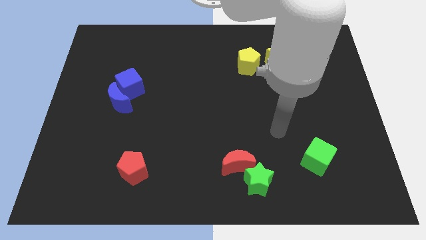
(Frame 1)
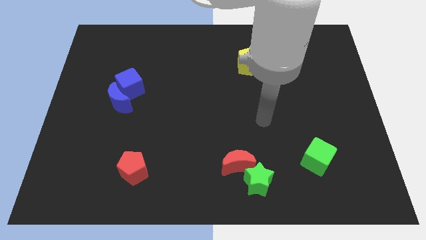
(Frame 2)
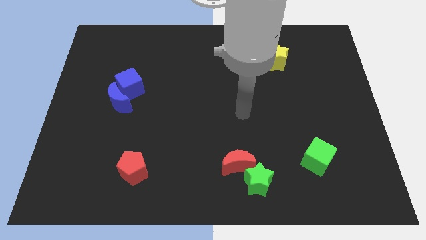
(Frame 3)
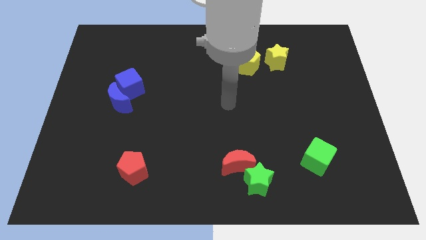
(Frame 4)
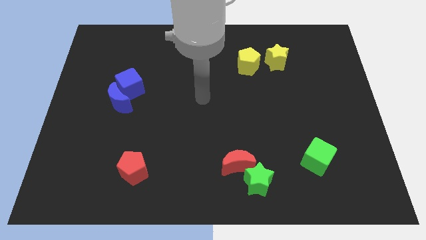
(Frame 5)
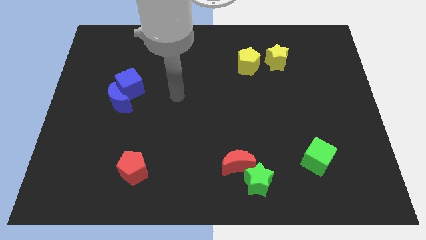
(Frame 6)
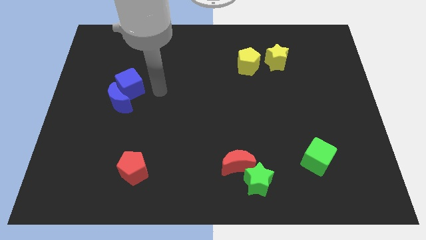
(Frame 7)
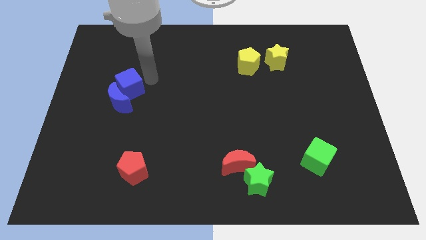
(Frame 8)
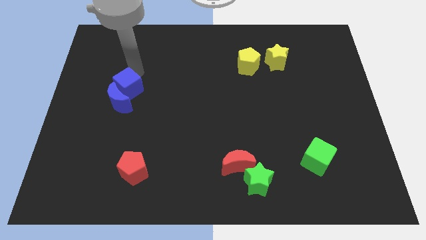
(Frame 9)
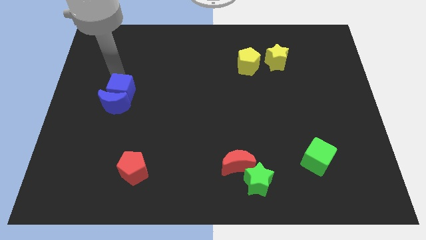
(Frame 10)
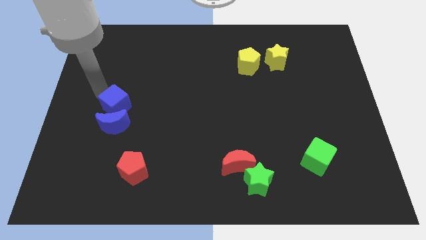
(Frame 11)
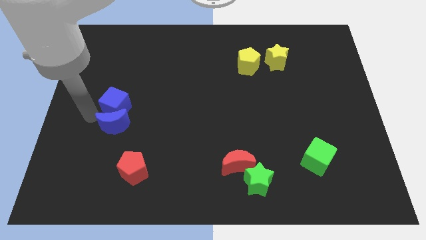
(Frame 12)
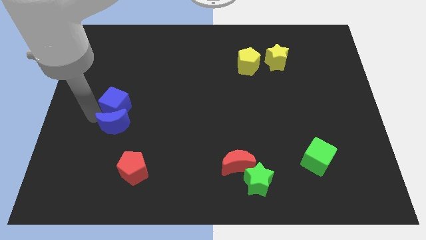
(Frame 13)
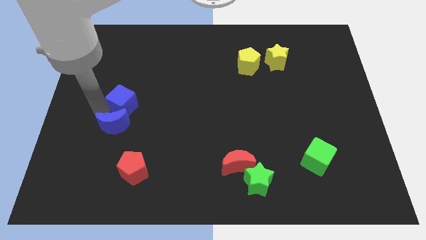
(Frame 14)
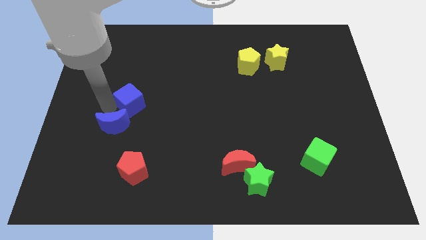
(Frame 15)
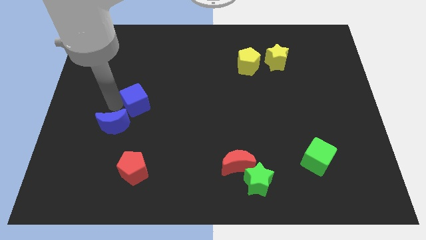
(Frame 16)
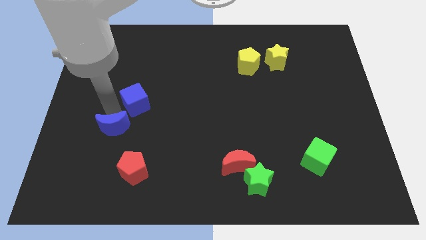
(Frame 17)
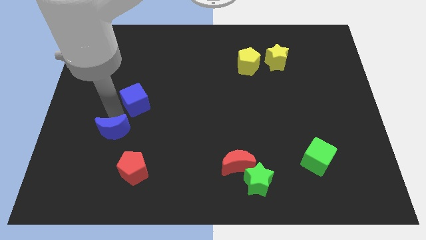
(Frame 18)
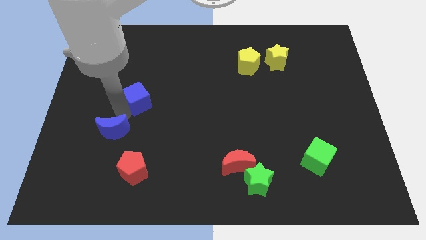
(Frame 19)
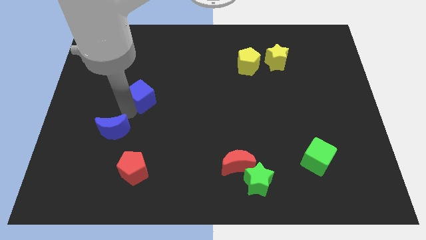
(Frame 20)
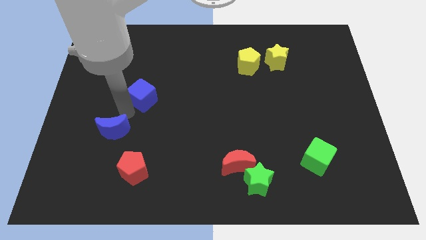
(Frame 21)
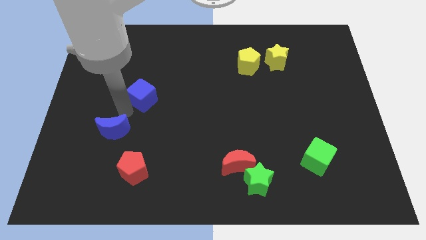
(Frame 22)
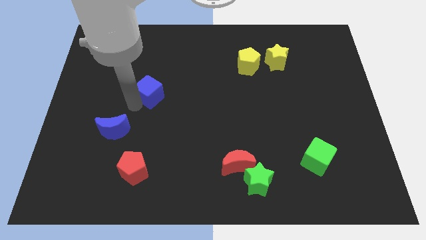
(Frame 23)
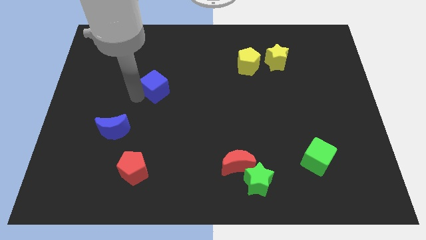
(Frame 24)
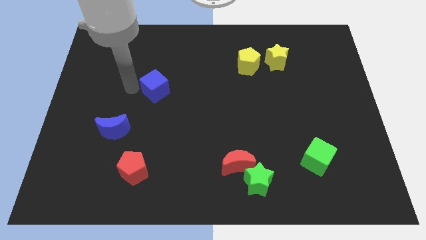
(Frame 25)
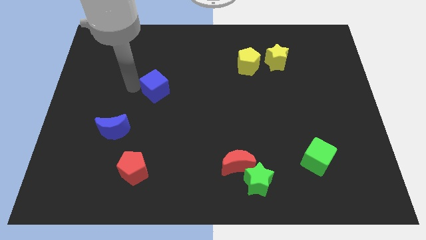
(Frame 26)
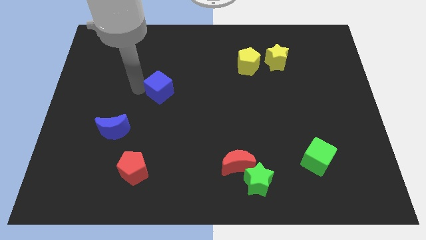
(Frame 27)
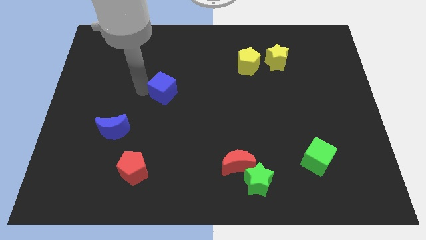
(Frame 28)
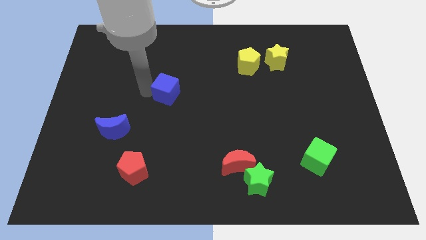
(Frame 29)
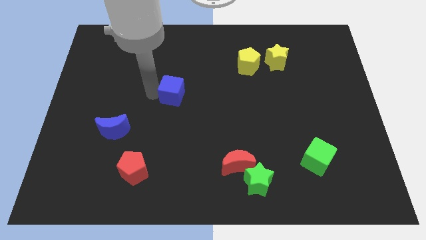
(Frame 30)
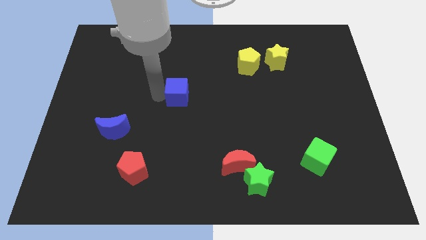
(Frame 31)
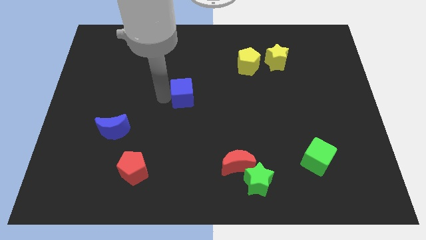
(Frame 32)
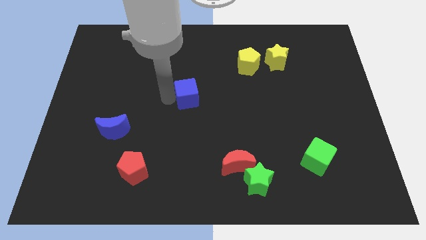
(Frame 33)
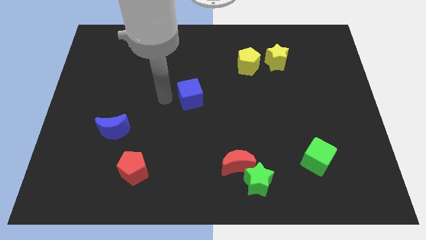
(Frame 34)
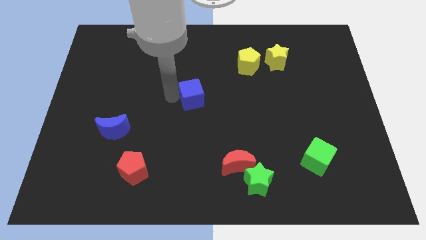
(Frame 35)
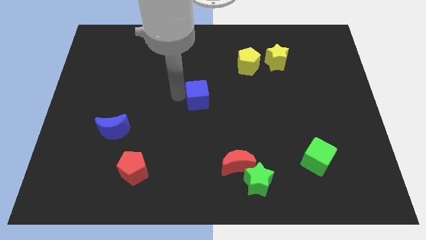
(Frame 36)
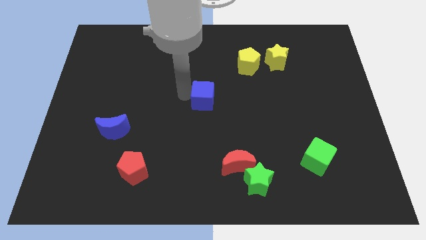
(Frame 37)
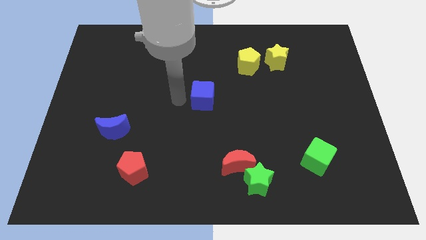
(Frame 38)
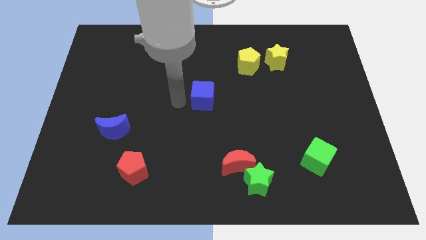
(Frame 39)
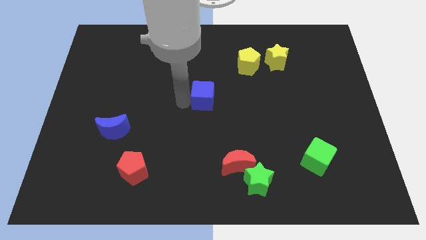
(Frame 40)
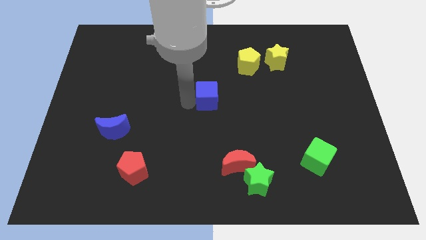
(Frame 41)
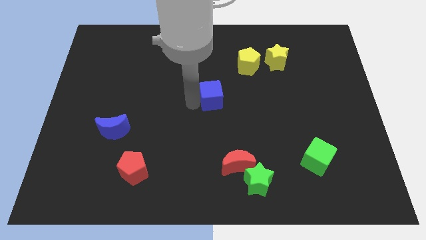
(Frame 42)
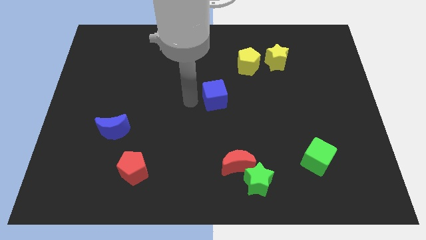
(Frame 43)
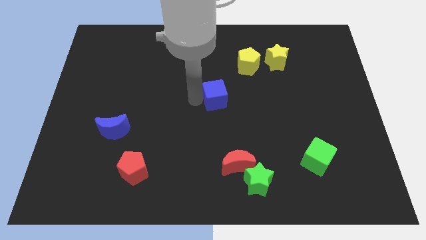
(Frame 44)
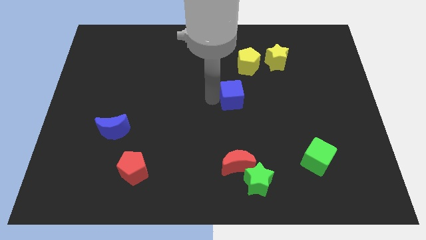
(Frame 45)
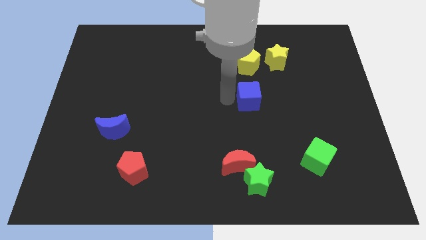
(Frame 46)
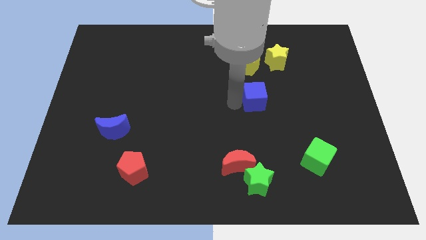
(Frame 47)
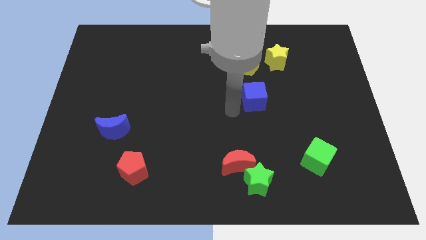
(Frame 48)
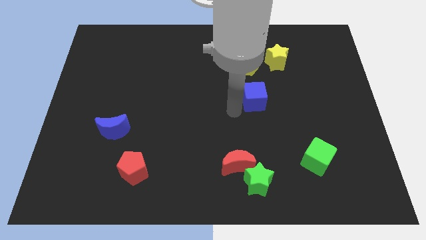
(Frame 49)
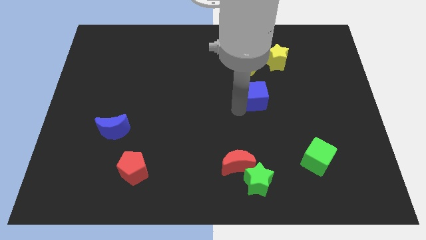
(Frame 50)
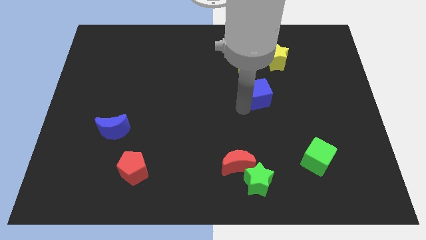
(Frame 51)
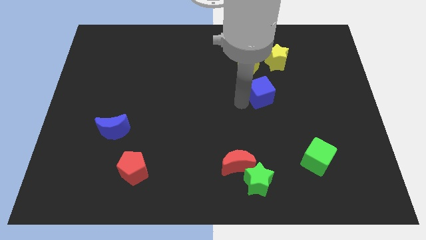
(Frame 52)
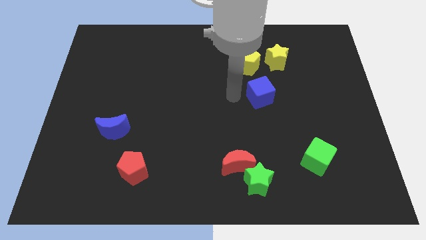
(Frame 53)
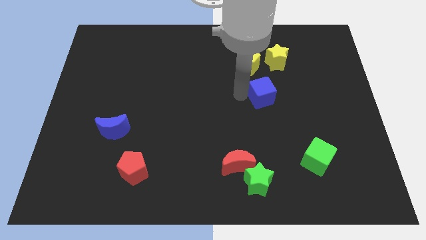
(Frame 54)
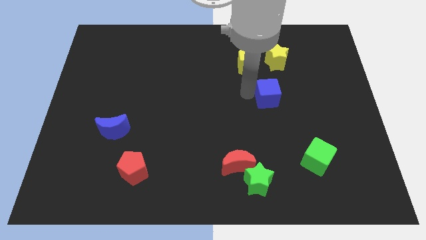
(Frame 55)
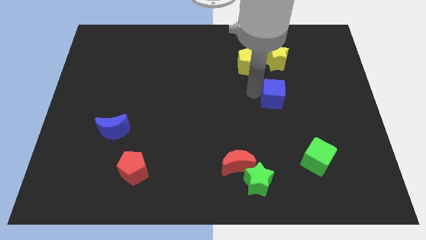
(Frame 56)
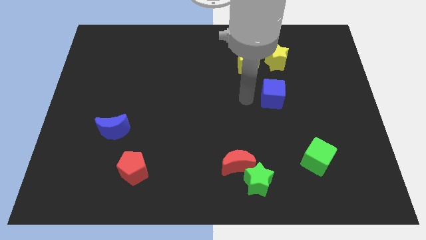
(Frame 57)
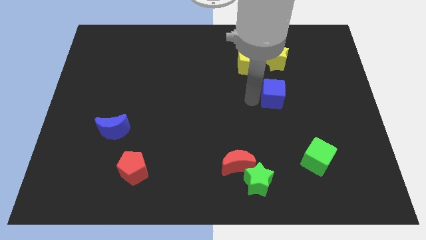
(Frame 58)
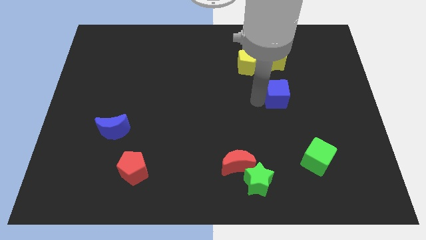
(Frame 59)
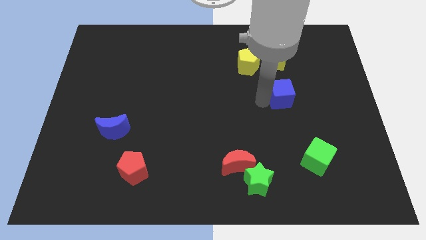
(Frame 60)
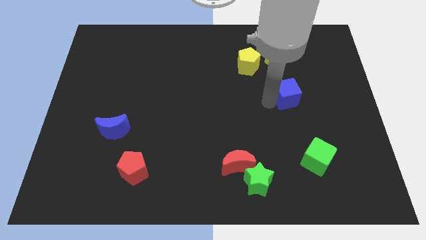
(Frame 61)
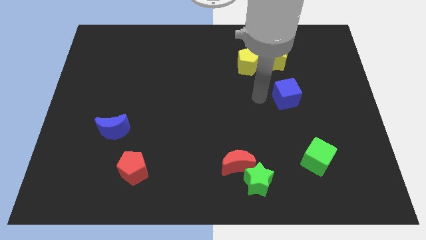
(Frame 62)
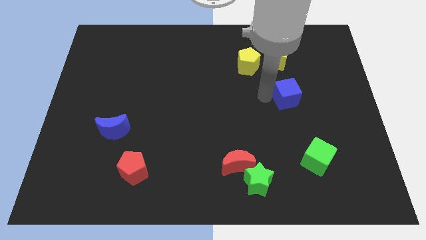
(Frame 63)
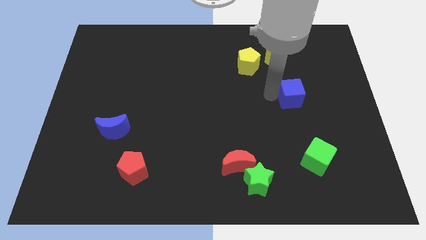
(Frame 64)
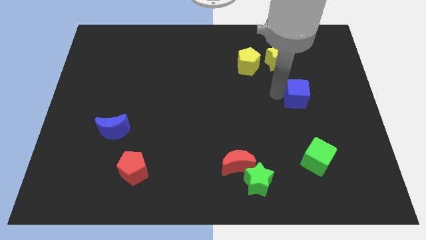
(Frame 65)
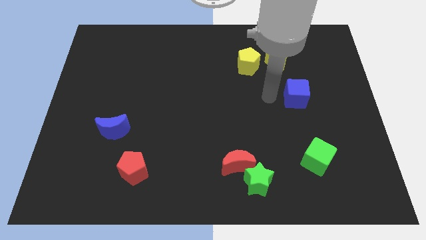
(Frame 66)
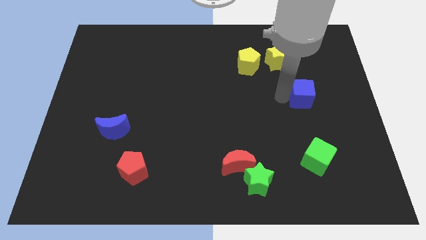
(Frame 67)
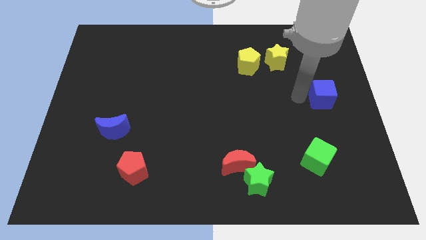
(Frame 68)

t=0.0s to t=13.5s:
slide the blue cube to the right side
